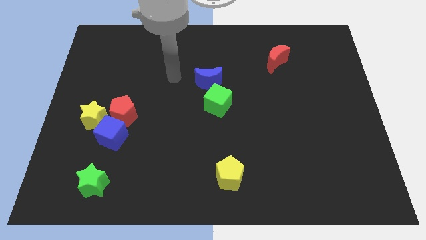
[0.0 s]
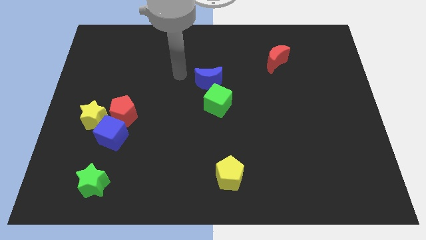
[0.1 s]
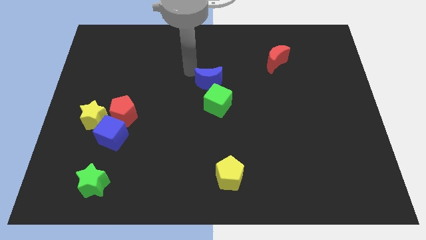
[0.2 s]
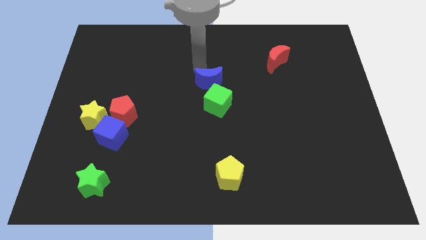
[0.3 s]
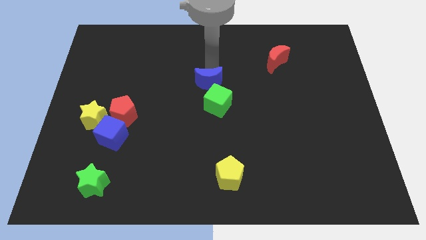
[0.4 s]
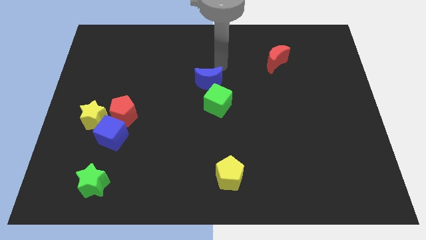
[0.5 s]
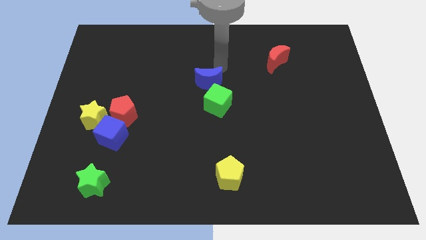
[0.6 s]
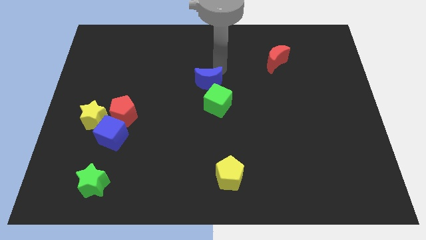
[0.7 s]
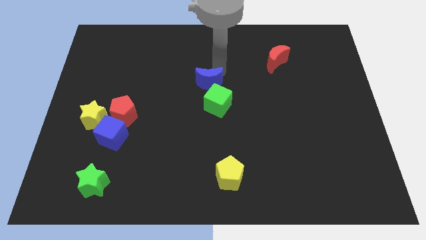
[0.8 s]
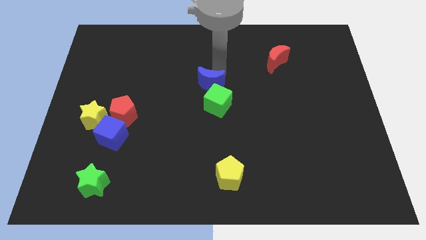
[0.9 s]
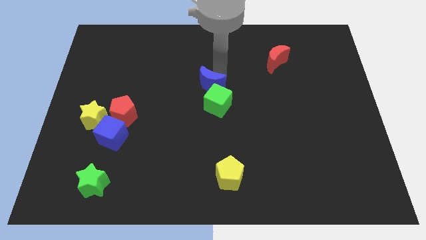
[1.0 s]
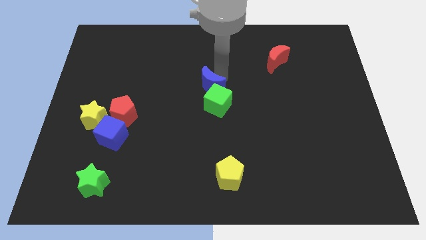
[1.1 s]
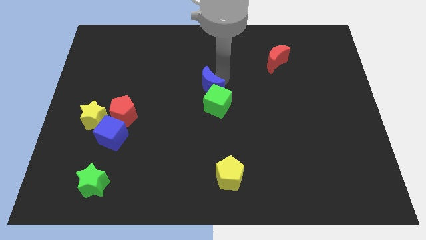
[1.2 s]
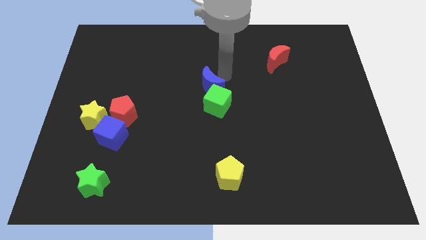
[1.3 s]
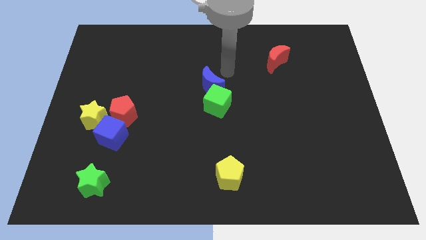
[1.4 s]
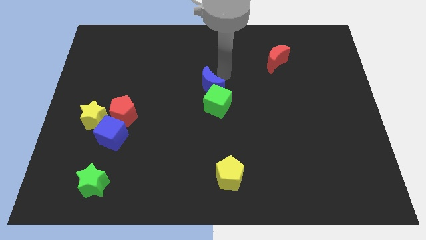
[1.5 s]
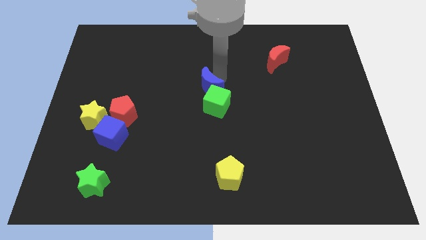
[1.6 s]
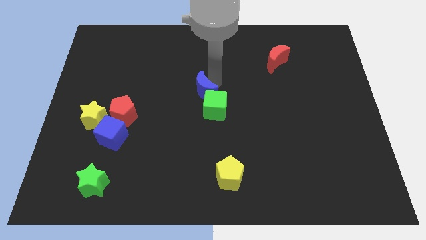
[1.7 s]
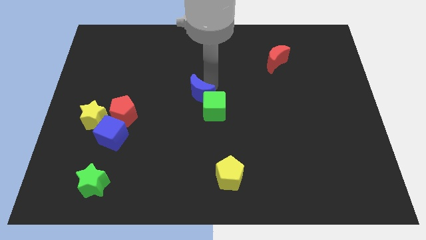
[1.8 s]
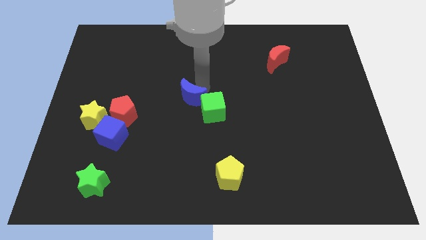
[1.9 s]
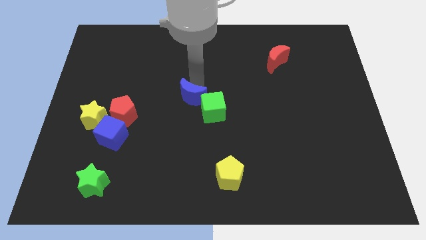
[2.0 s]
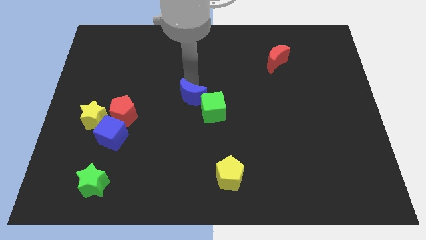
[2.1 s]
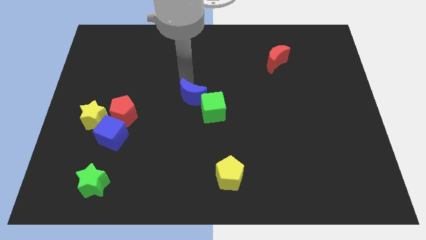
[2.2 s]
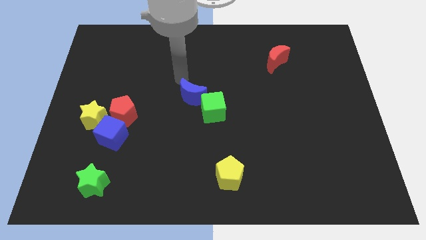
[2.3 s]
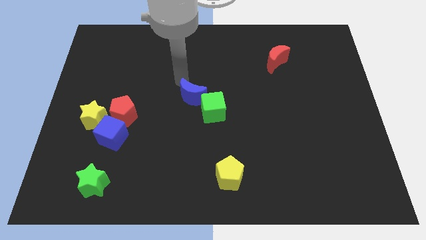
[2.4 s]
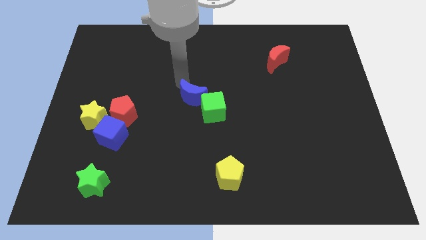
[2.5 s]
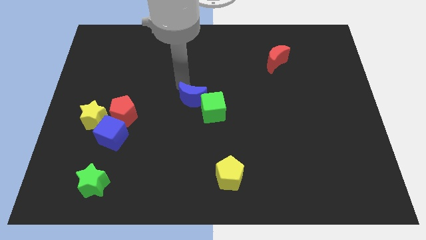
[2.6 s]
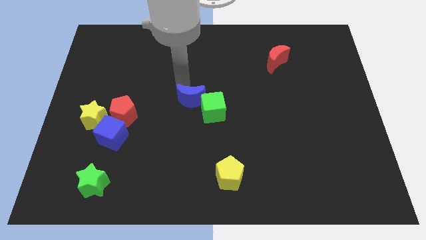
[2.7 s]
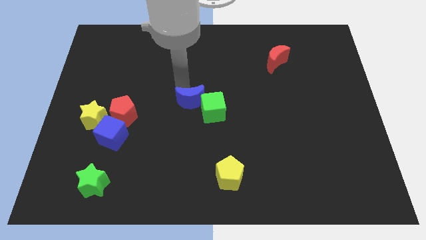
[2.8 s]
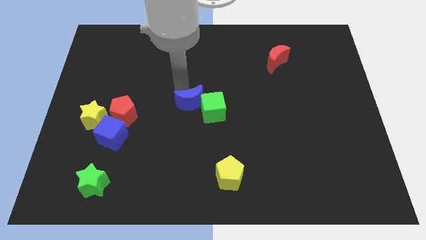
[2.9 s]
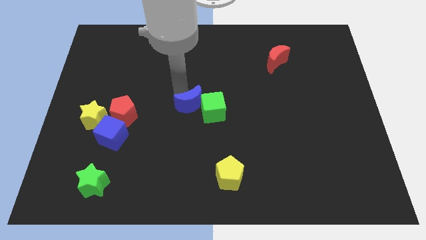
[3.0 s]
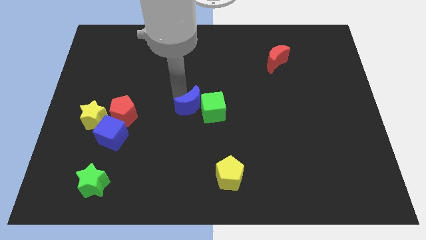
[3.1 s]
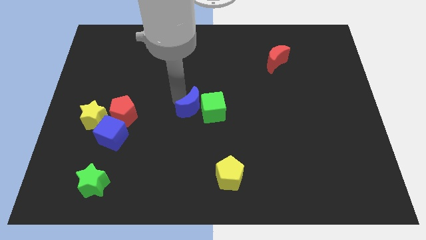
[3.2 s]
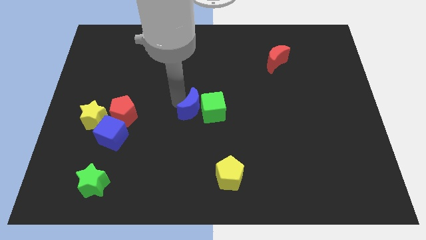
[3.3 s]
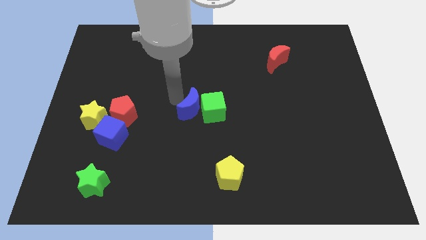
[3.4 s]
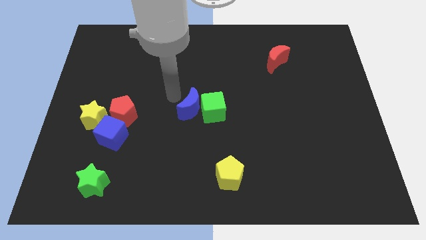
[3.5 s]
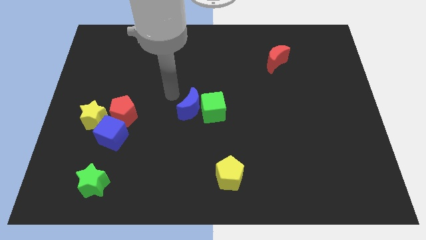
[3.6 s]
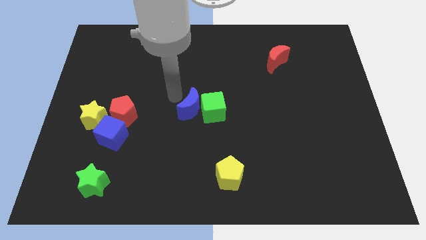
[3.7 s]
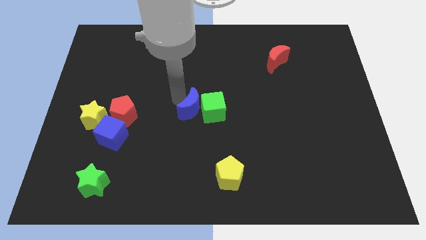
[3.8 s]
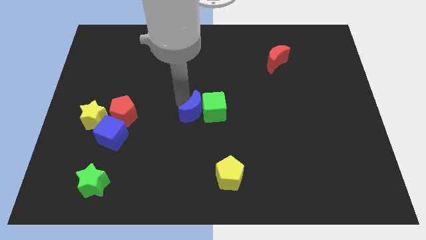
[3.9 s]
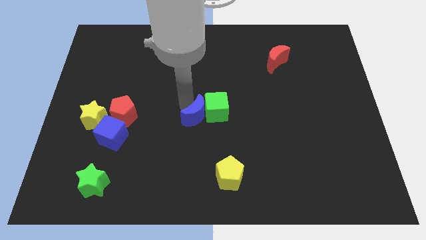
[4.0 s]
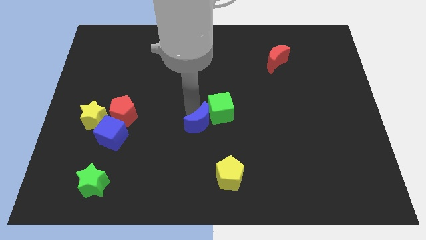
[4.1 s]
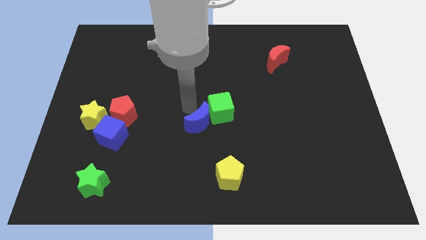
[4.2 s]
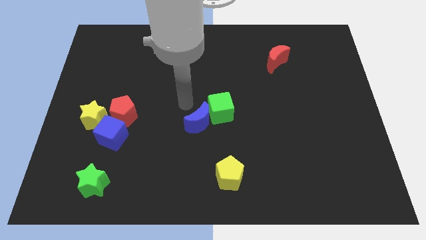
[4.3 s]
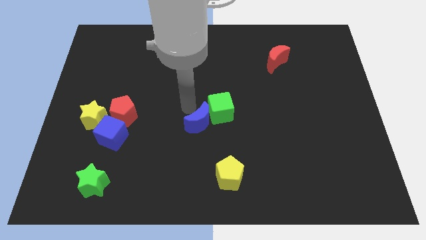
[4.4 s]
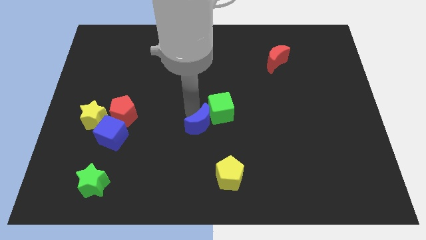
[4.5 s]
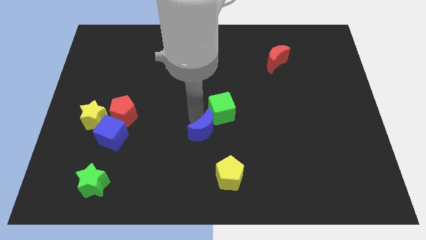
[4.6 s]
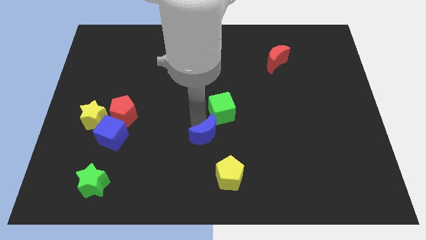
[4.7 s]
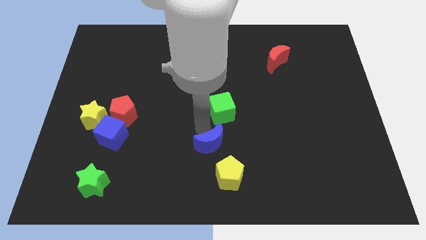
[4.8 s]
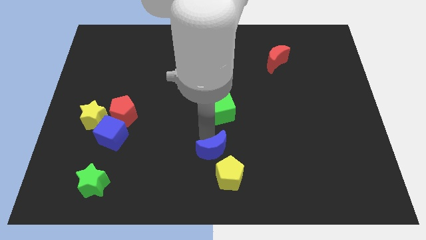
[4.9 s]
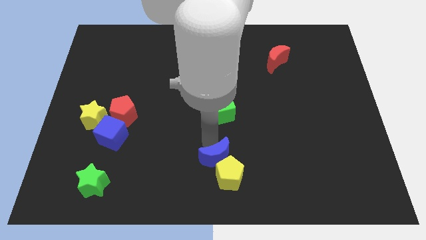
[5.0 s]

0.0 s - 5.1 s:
slide the blue moon towards the yellow pentagon

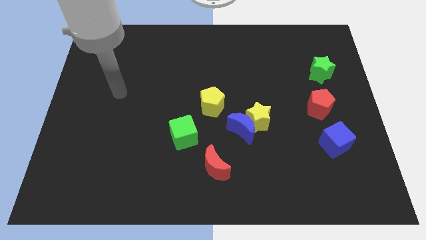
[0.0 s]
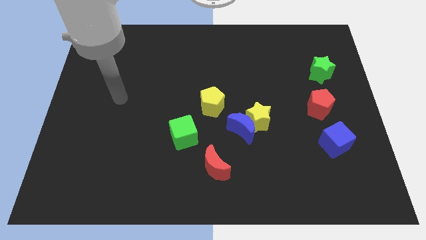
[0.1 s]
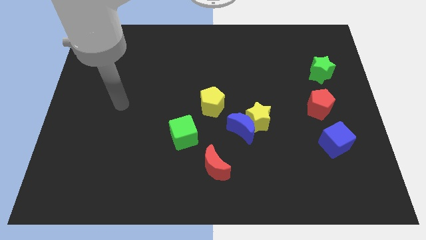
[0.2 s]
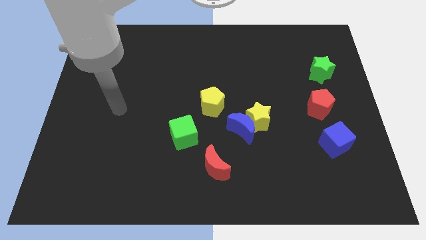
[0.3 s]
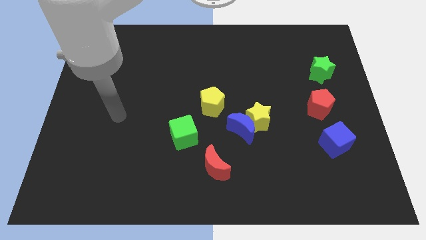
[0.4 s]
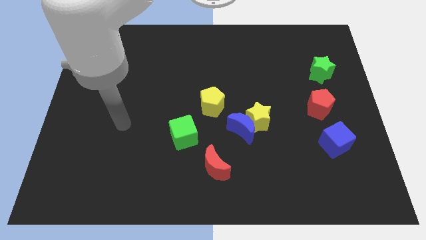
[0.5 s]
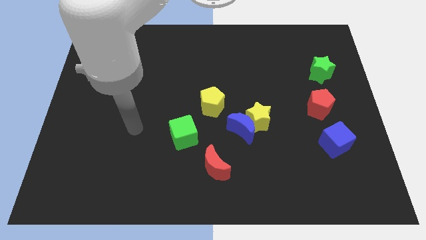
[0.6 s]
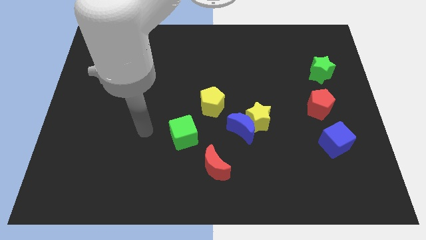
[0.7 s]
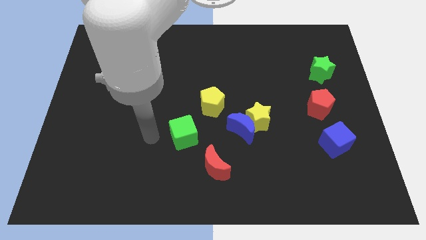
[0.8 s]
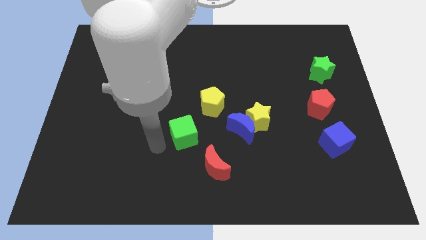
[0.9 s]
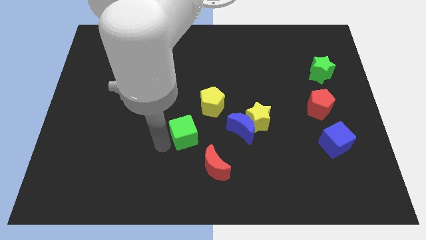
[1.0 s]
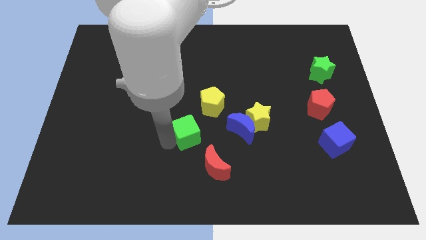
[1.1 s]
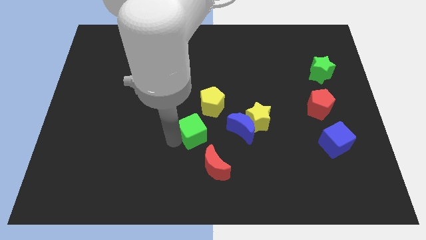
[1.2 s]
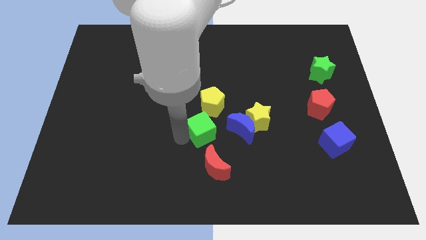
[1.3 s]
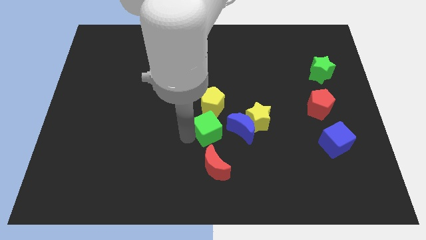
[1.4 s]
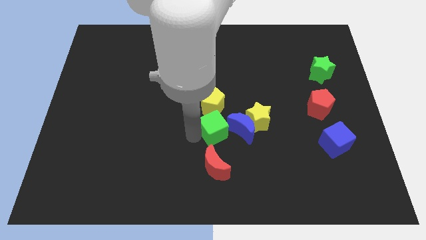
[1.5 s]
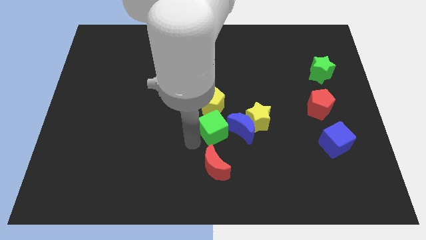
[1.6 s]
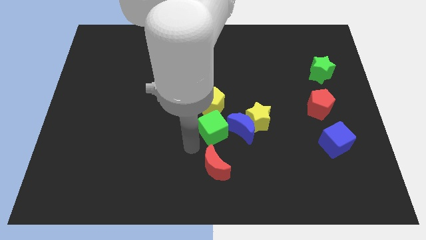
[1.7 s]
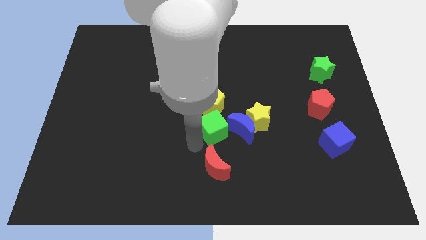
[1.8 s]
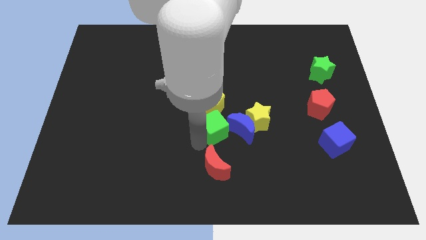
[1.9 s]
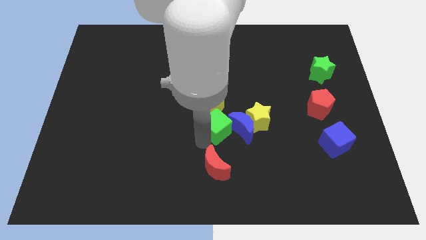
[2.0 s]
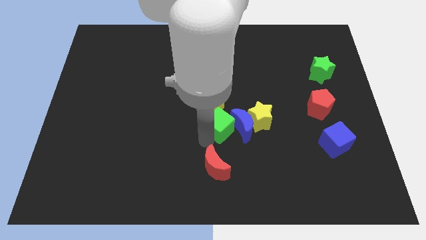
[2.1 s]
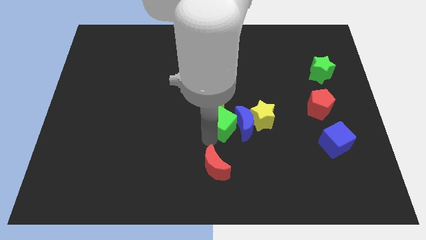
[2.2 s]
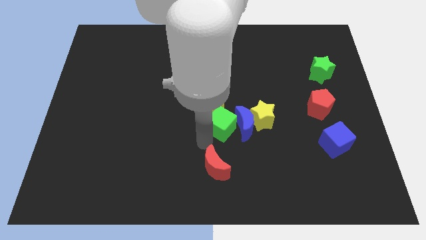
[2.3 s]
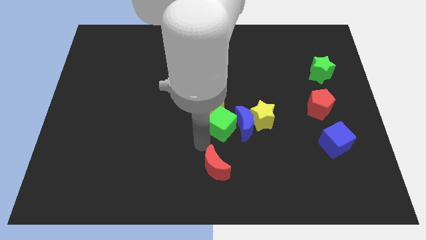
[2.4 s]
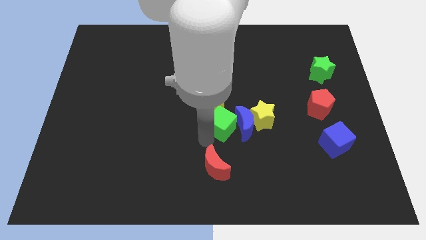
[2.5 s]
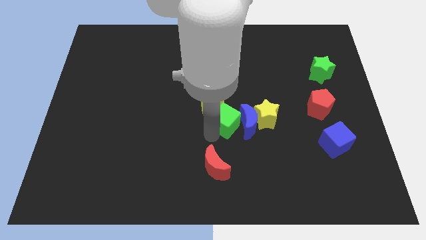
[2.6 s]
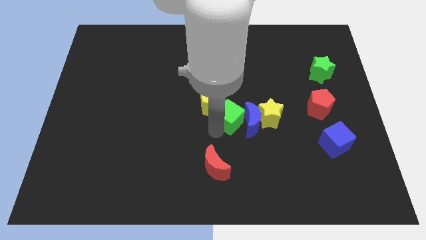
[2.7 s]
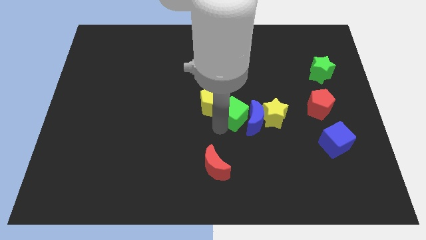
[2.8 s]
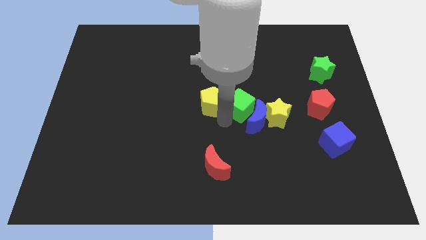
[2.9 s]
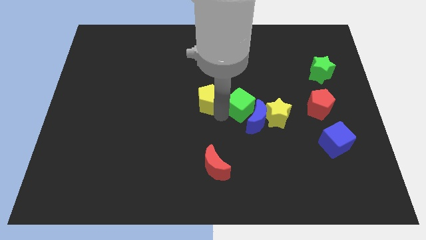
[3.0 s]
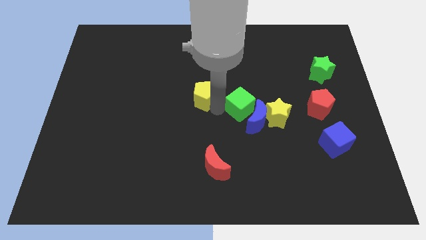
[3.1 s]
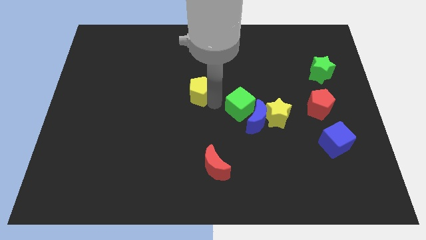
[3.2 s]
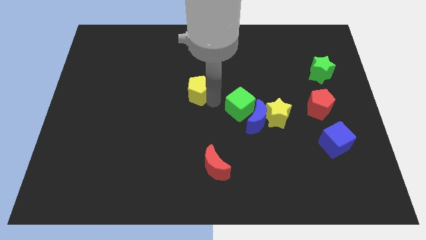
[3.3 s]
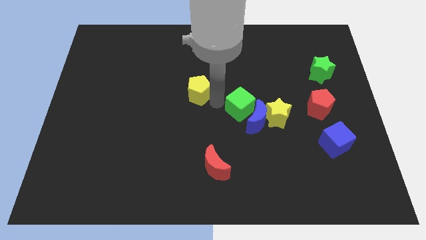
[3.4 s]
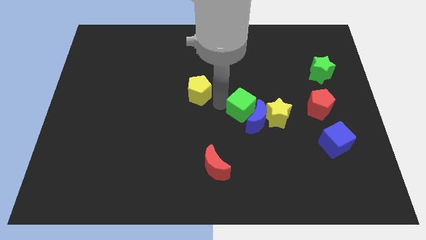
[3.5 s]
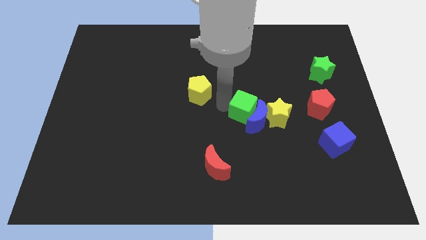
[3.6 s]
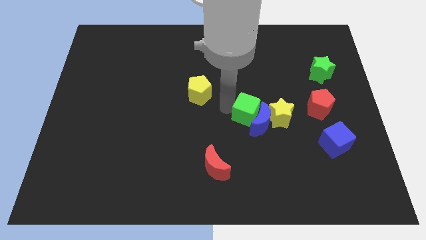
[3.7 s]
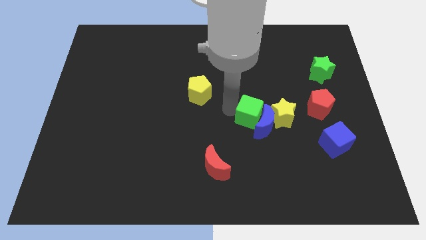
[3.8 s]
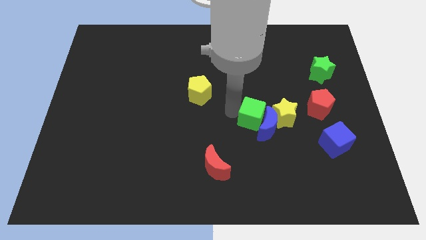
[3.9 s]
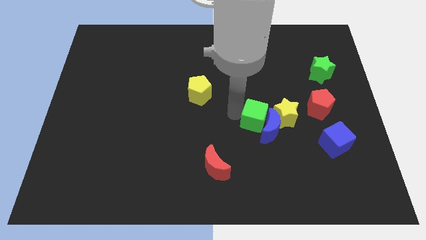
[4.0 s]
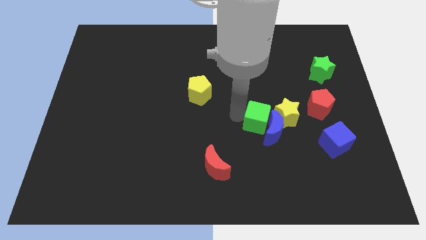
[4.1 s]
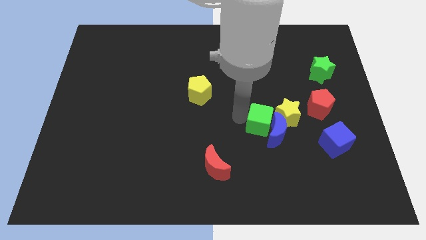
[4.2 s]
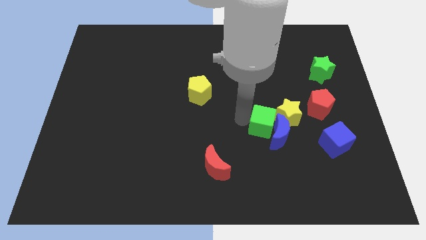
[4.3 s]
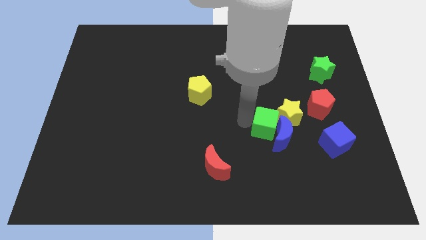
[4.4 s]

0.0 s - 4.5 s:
push the green cube towards the yellow star
